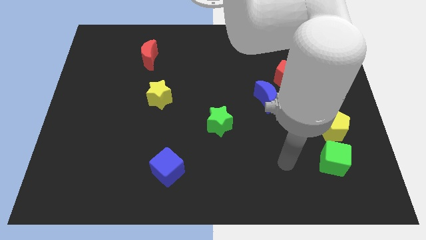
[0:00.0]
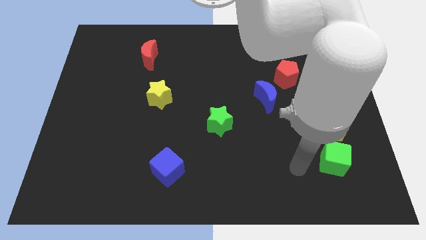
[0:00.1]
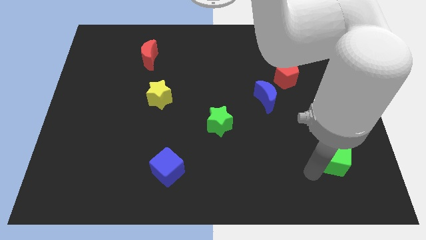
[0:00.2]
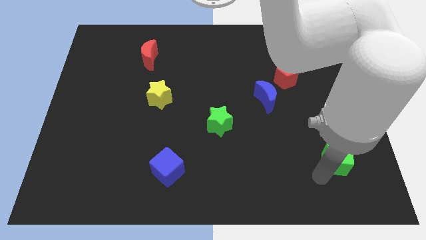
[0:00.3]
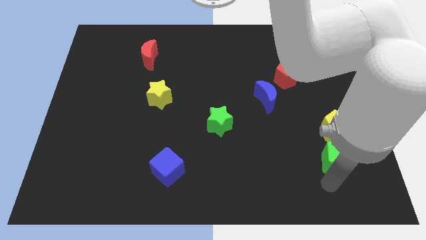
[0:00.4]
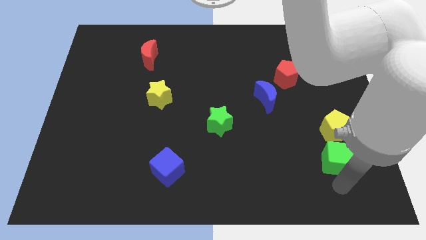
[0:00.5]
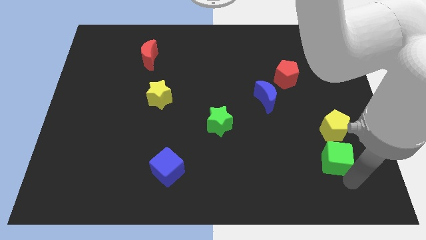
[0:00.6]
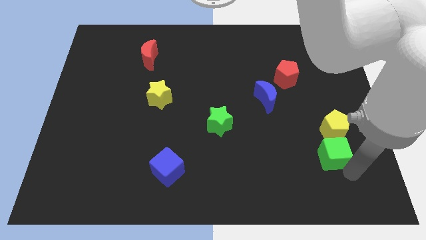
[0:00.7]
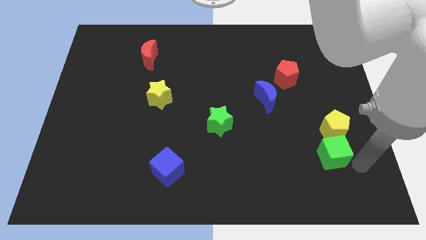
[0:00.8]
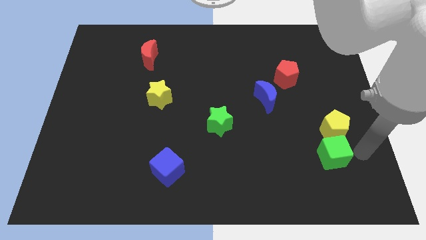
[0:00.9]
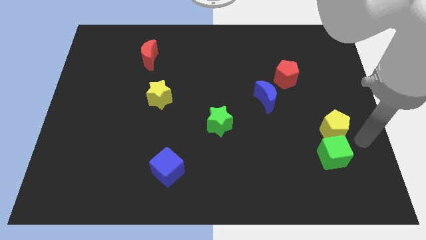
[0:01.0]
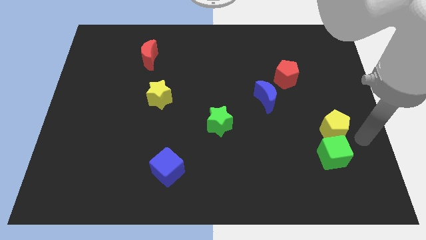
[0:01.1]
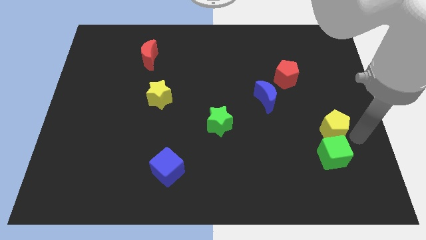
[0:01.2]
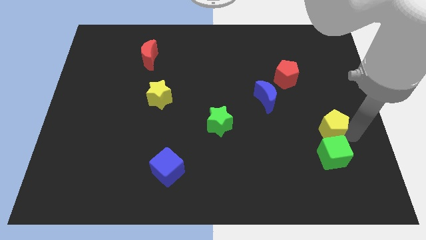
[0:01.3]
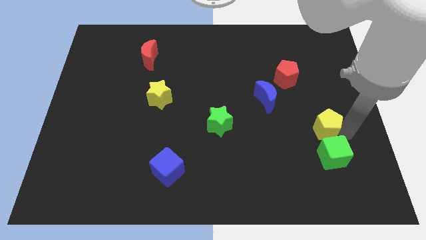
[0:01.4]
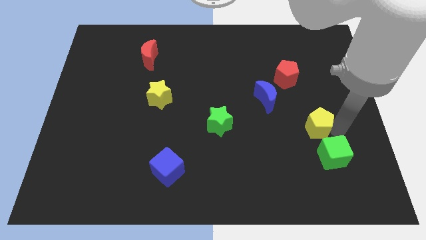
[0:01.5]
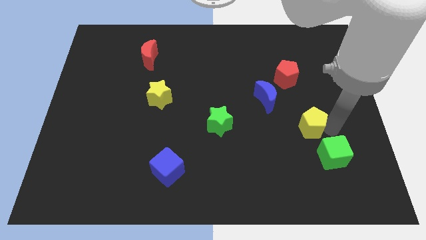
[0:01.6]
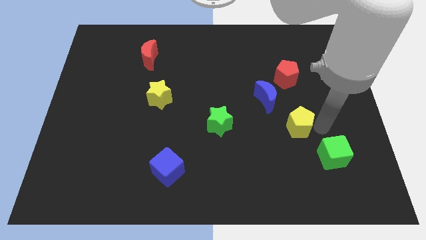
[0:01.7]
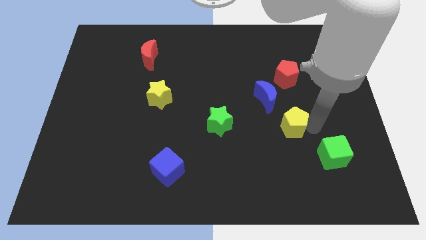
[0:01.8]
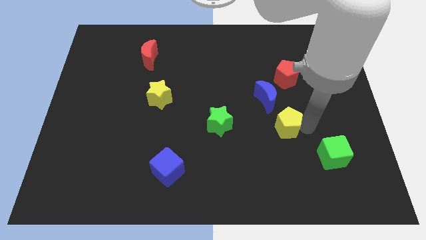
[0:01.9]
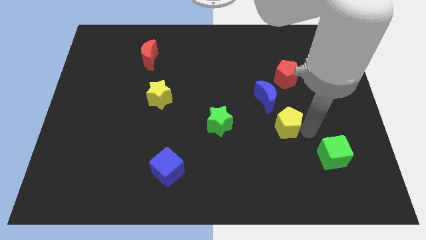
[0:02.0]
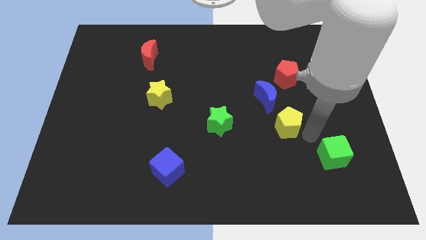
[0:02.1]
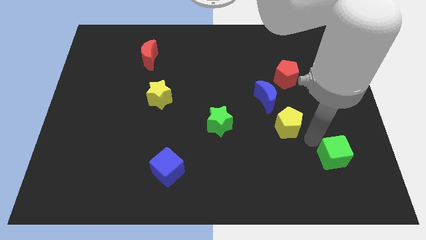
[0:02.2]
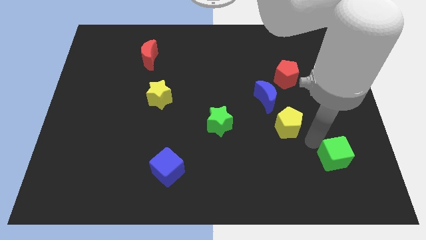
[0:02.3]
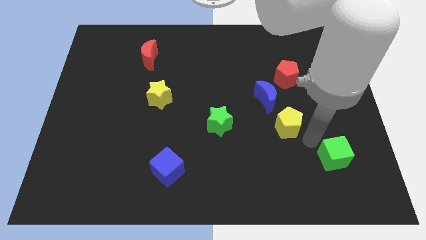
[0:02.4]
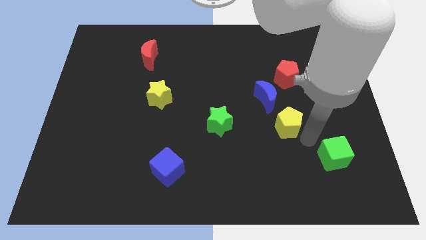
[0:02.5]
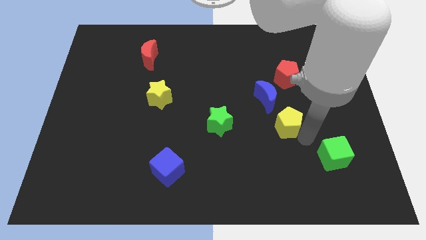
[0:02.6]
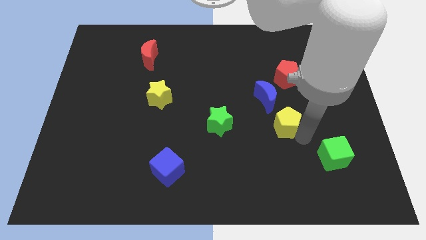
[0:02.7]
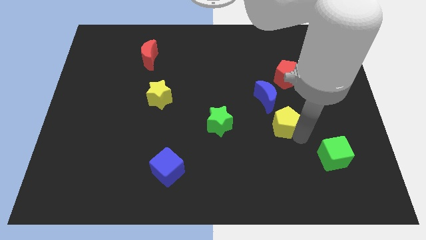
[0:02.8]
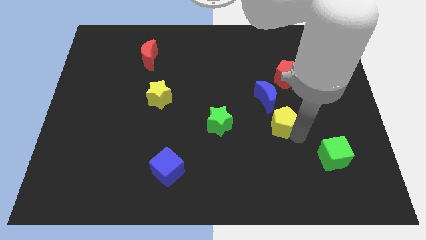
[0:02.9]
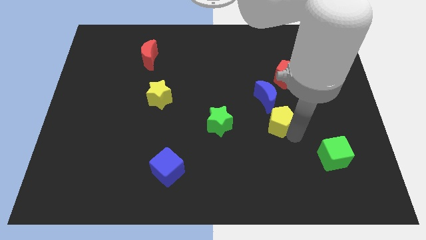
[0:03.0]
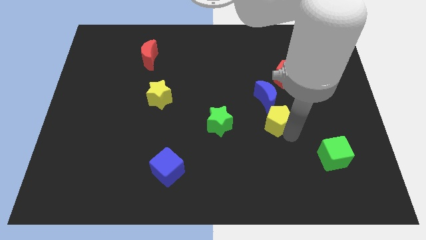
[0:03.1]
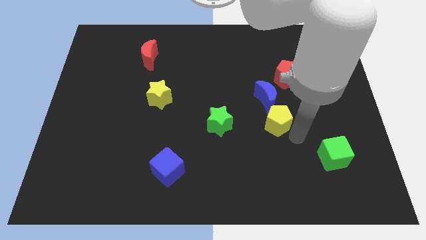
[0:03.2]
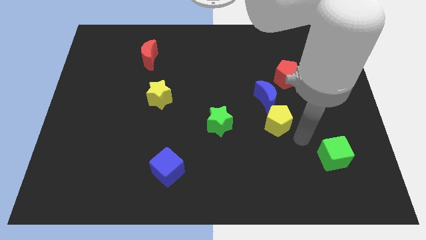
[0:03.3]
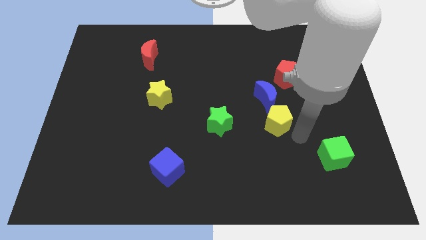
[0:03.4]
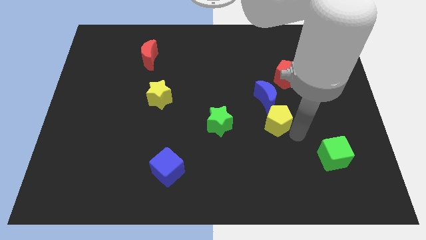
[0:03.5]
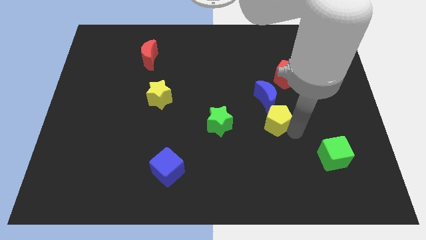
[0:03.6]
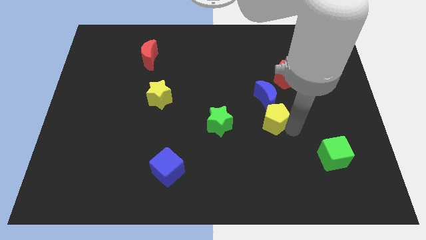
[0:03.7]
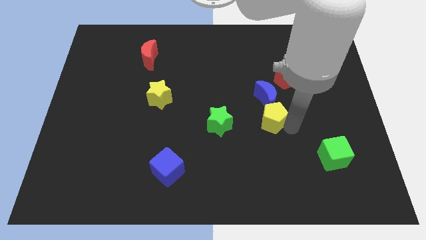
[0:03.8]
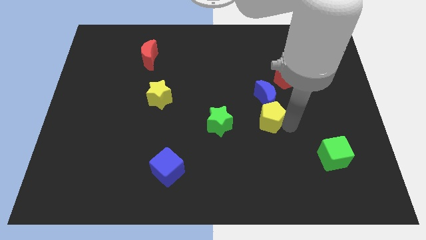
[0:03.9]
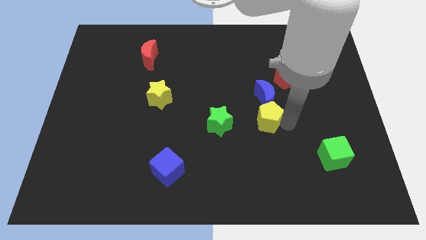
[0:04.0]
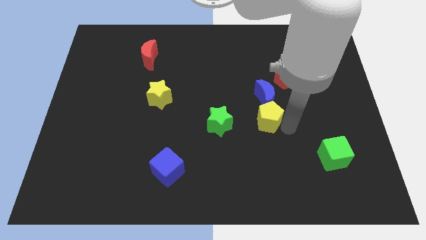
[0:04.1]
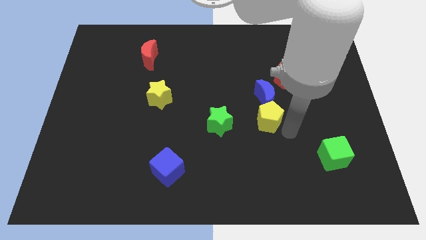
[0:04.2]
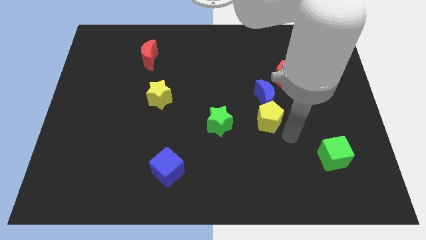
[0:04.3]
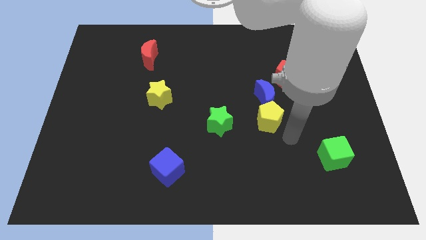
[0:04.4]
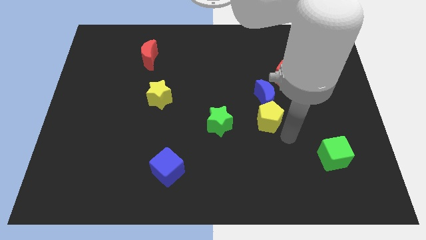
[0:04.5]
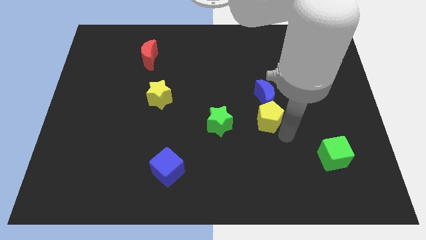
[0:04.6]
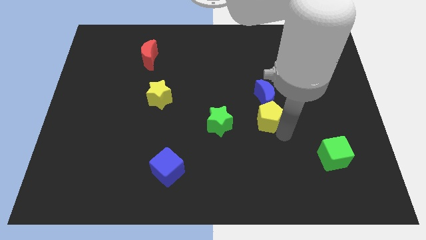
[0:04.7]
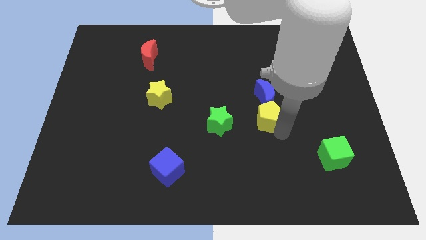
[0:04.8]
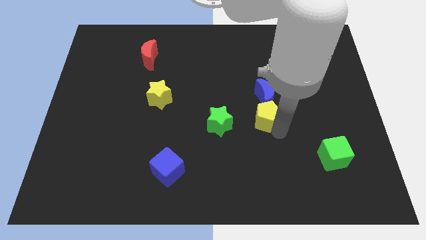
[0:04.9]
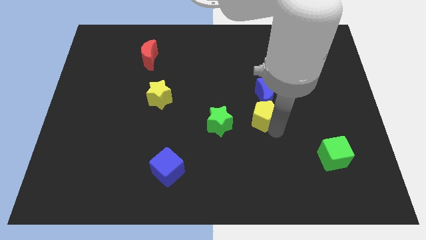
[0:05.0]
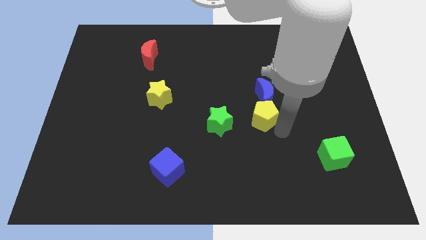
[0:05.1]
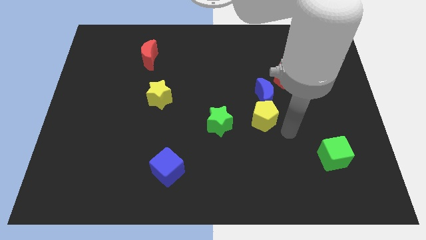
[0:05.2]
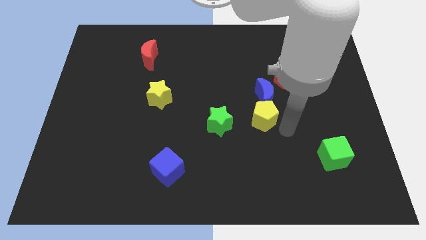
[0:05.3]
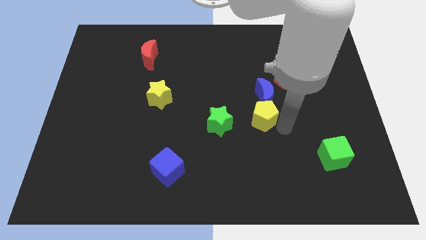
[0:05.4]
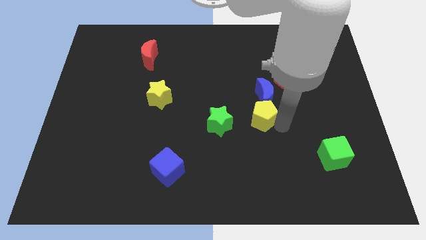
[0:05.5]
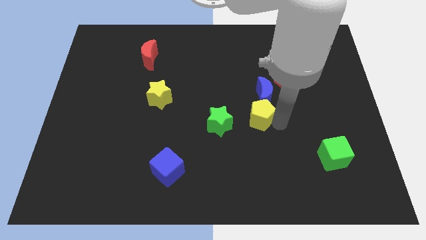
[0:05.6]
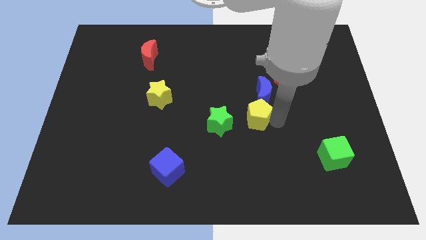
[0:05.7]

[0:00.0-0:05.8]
slide the yellow pentagon to the top right side of the green star

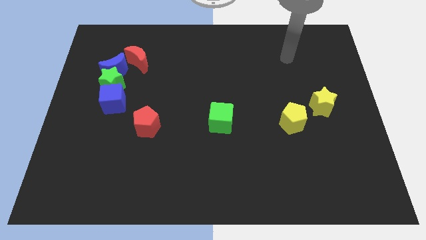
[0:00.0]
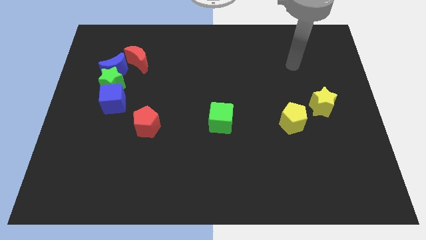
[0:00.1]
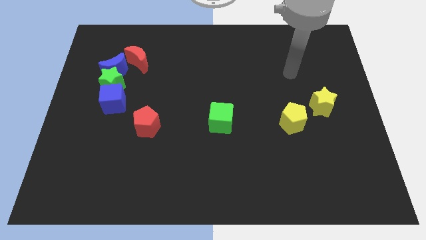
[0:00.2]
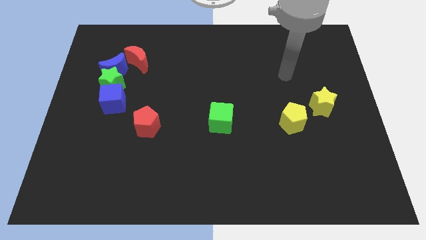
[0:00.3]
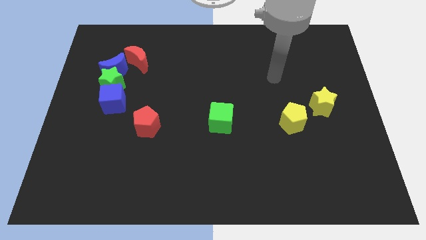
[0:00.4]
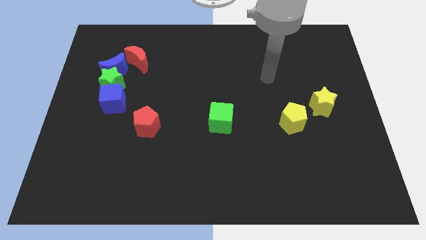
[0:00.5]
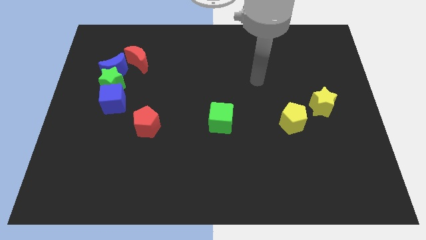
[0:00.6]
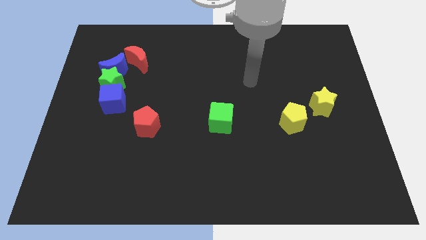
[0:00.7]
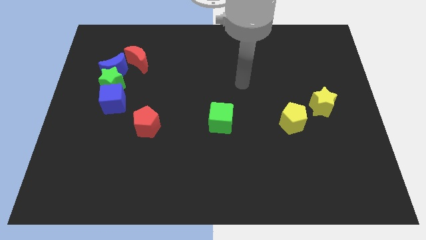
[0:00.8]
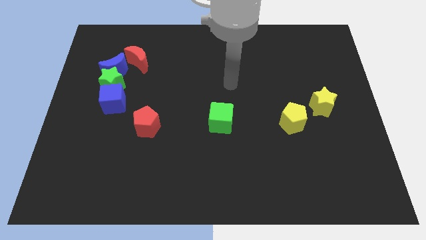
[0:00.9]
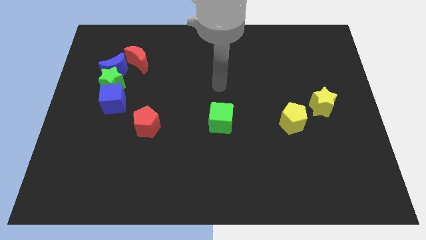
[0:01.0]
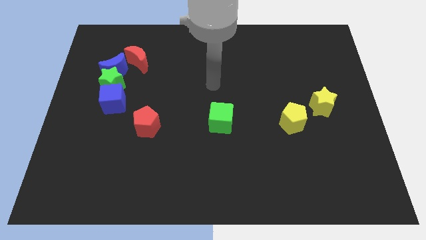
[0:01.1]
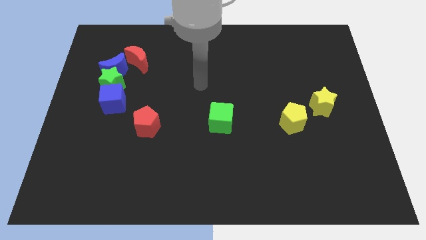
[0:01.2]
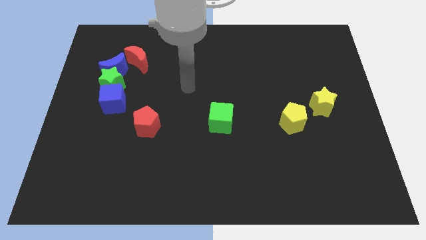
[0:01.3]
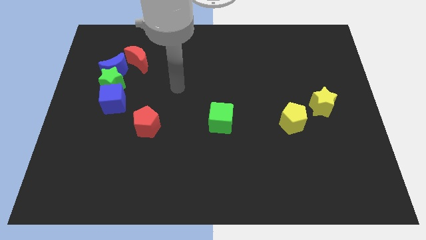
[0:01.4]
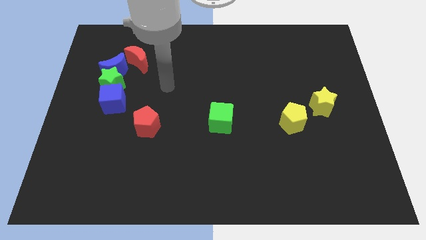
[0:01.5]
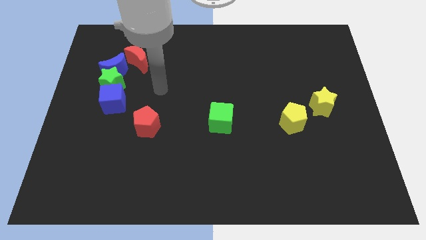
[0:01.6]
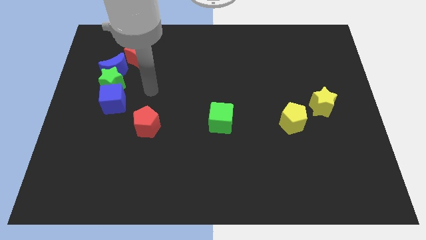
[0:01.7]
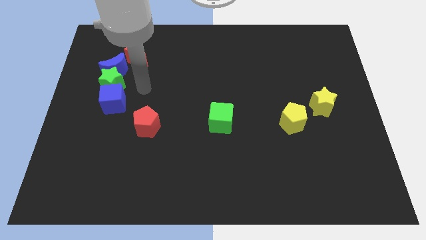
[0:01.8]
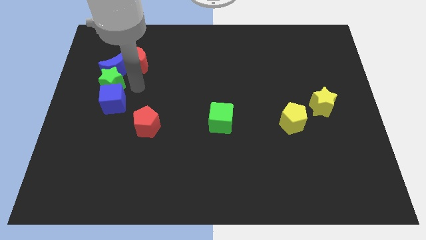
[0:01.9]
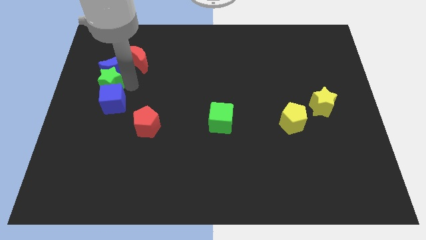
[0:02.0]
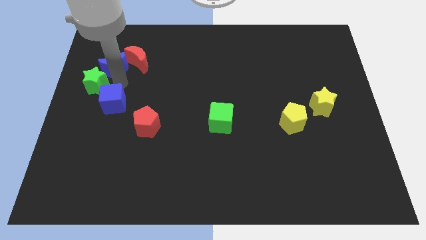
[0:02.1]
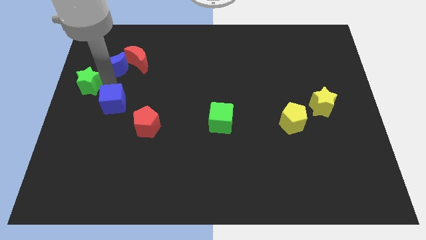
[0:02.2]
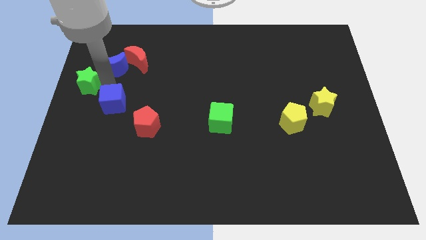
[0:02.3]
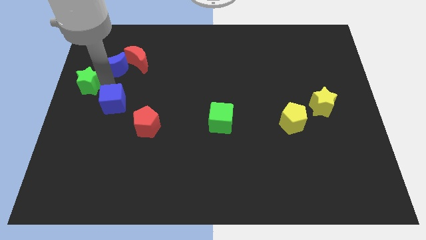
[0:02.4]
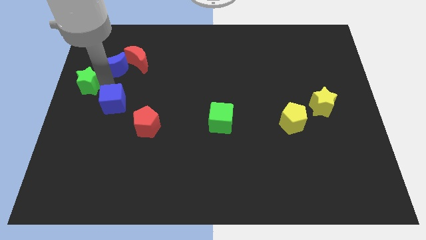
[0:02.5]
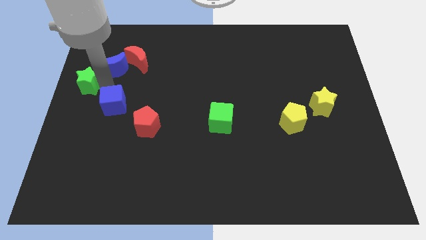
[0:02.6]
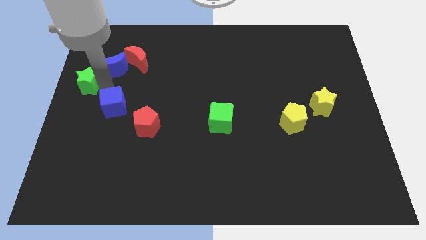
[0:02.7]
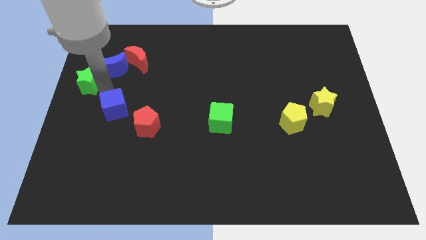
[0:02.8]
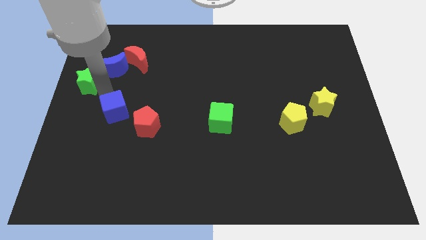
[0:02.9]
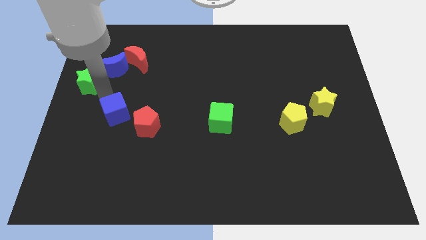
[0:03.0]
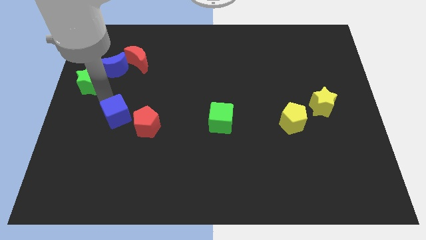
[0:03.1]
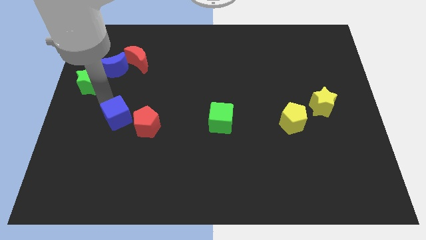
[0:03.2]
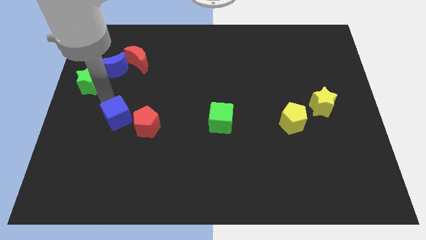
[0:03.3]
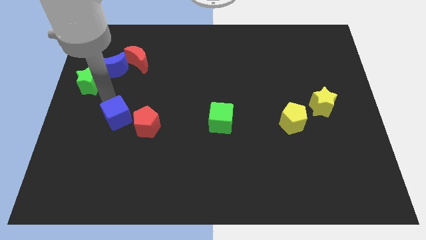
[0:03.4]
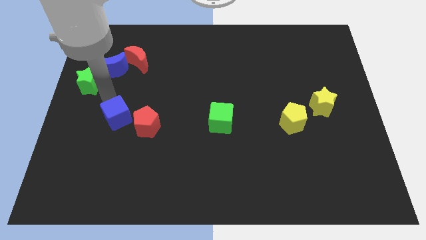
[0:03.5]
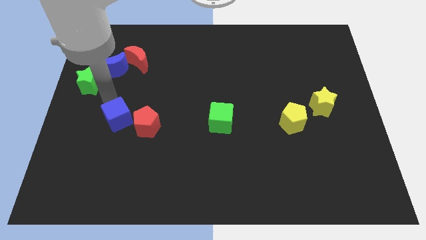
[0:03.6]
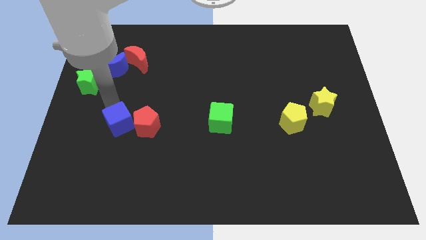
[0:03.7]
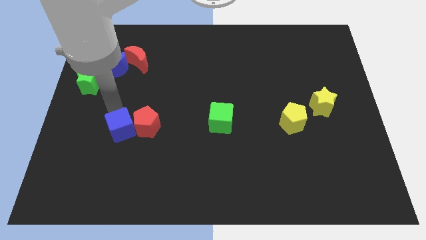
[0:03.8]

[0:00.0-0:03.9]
push the blue cube to the bottom left of the red pentagon
